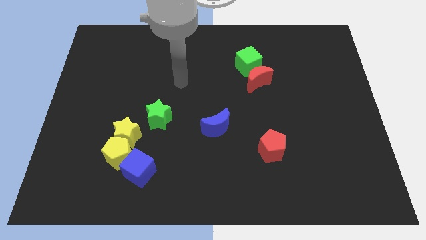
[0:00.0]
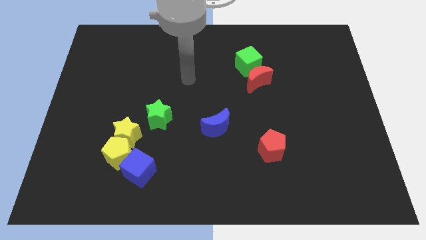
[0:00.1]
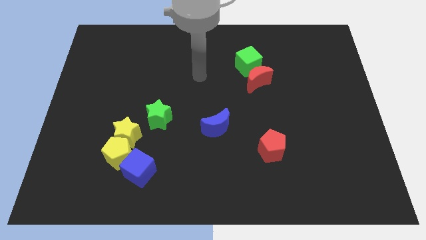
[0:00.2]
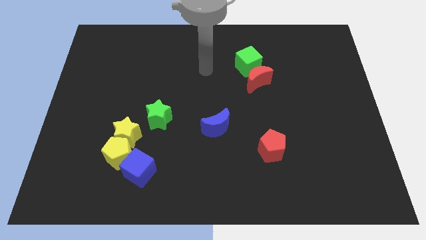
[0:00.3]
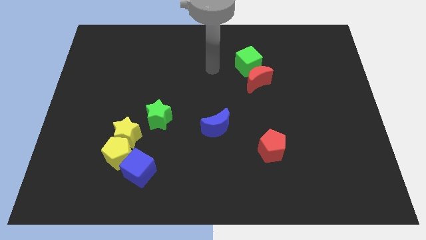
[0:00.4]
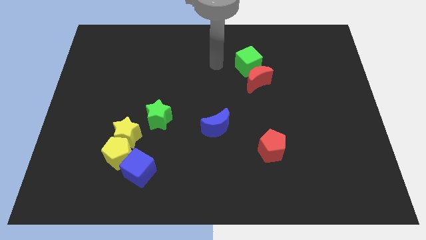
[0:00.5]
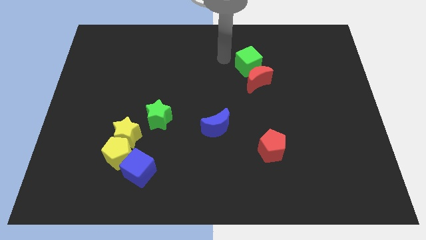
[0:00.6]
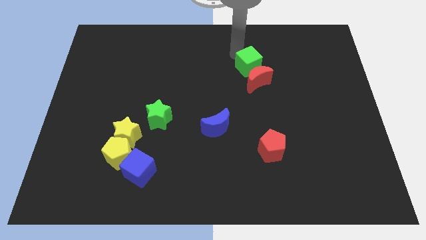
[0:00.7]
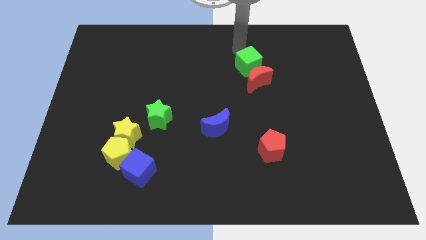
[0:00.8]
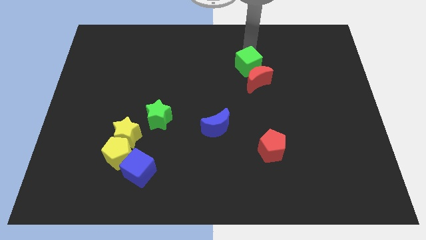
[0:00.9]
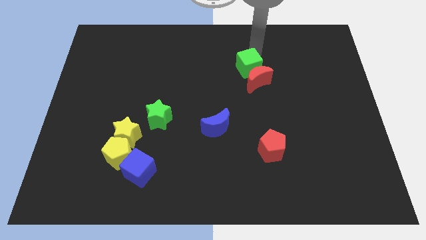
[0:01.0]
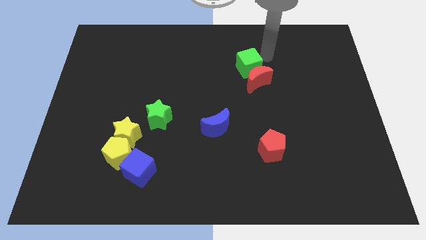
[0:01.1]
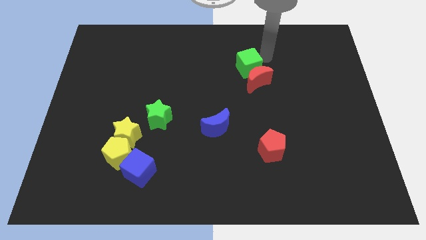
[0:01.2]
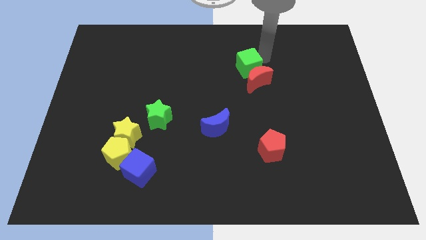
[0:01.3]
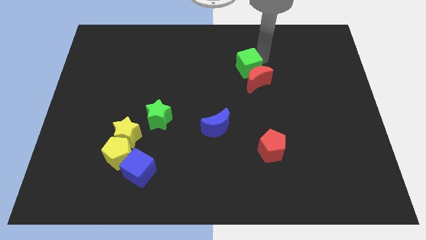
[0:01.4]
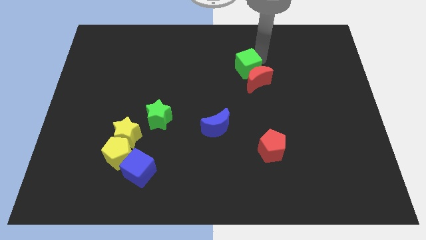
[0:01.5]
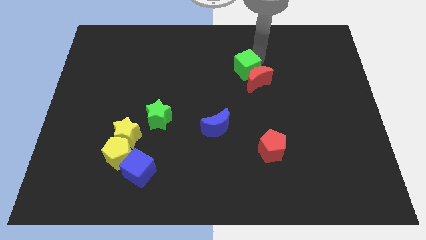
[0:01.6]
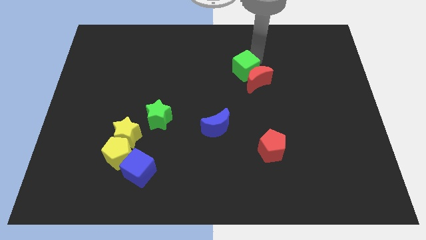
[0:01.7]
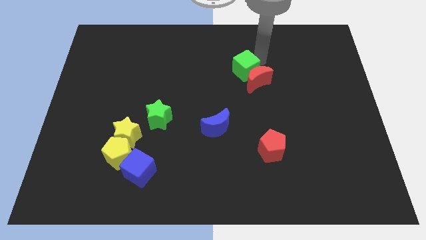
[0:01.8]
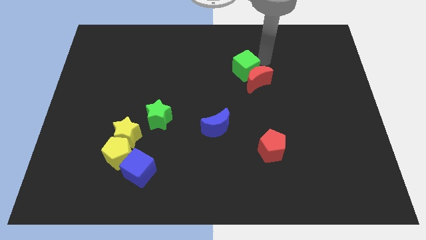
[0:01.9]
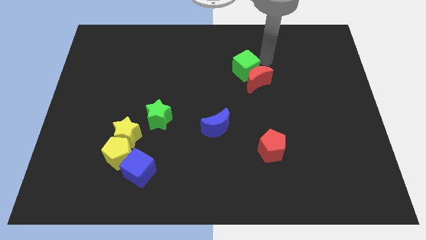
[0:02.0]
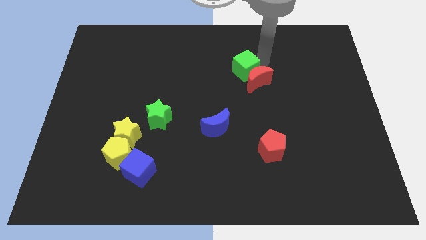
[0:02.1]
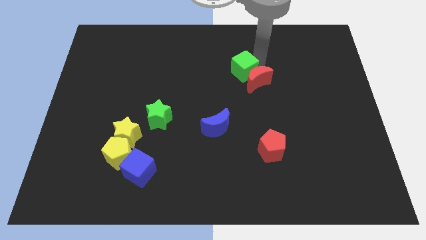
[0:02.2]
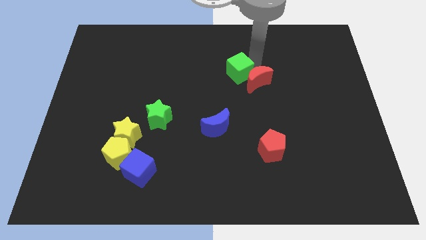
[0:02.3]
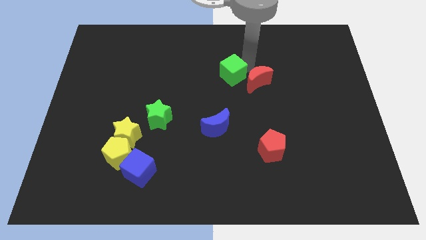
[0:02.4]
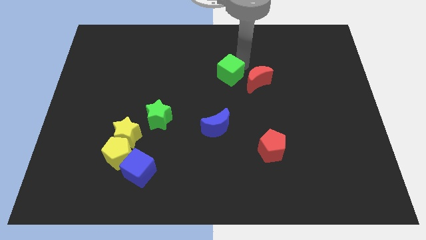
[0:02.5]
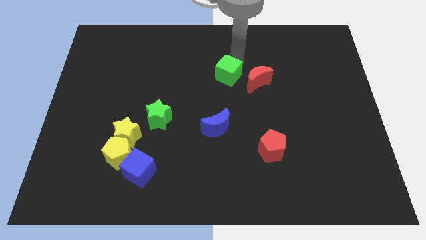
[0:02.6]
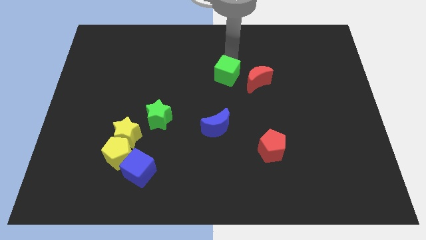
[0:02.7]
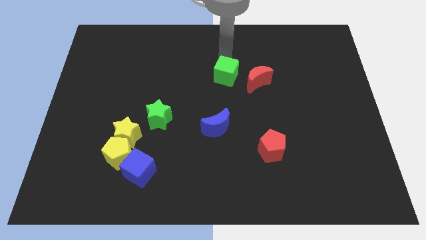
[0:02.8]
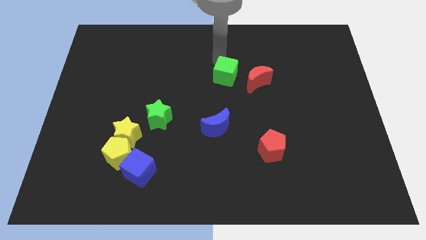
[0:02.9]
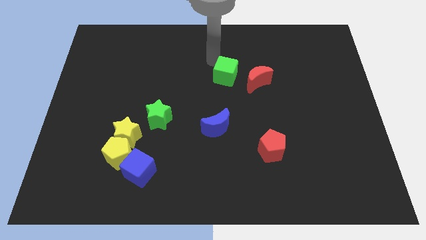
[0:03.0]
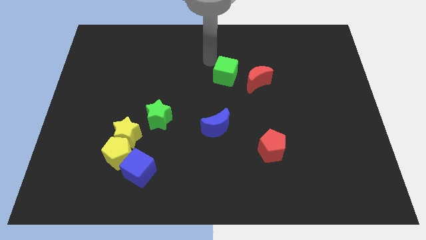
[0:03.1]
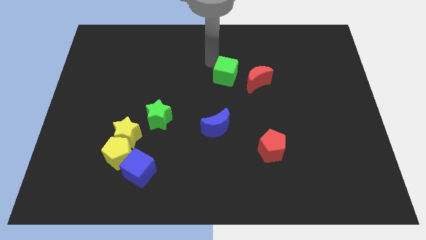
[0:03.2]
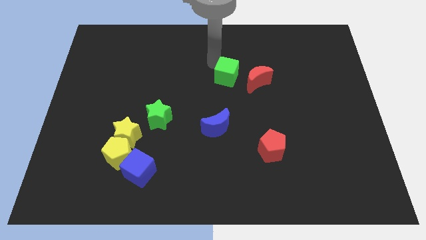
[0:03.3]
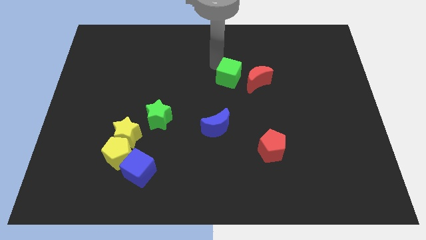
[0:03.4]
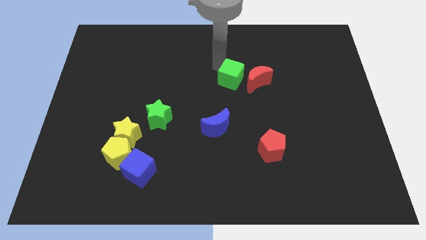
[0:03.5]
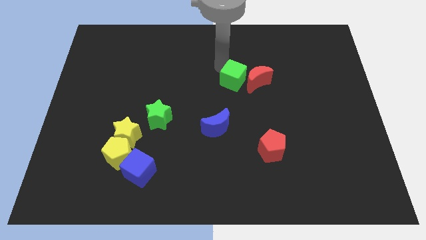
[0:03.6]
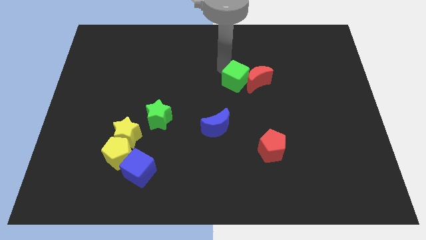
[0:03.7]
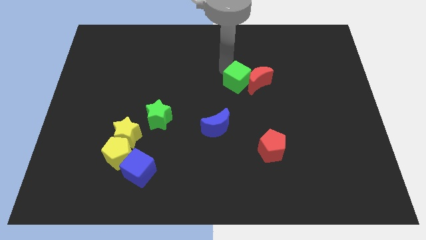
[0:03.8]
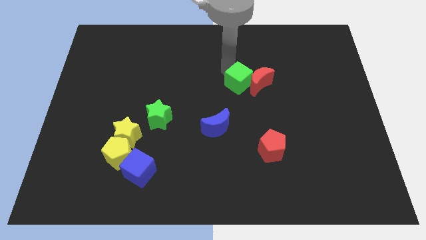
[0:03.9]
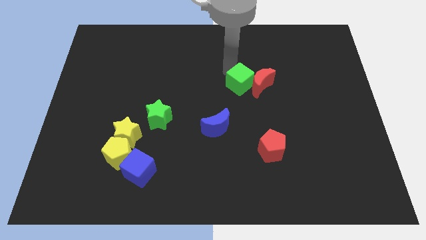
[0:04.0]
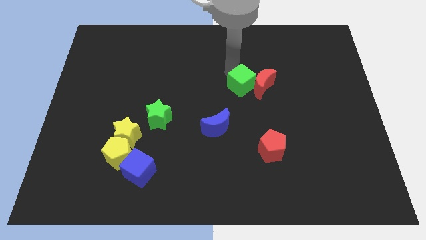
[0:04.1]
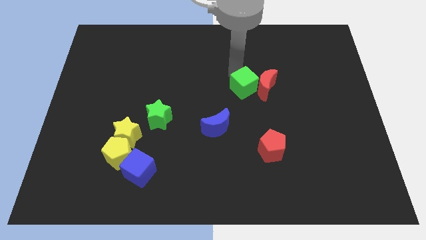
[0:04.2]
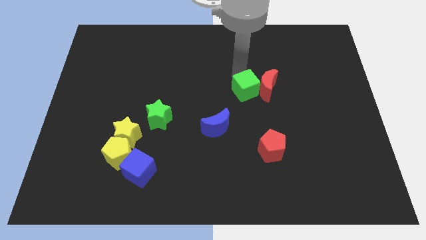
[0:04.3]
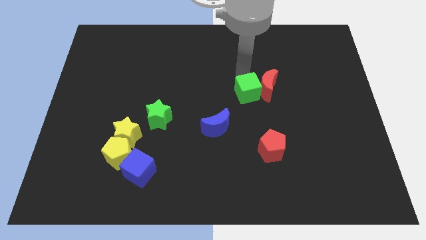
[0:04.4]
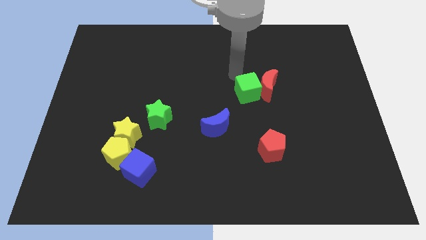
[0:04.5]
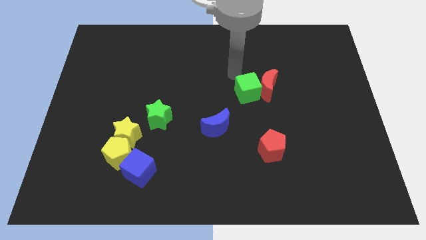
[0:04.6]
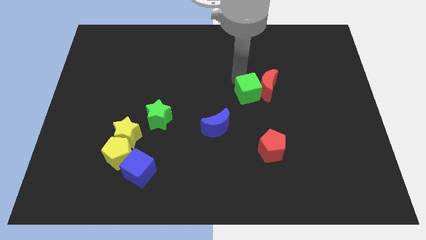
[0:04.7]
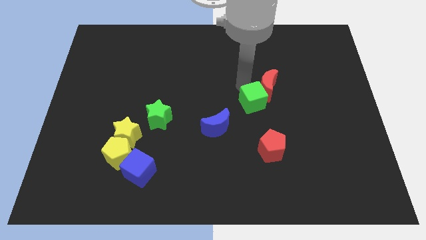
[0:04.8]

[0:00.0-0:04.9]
put the green cube below the red moon

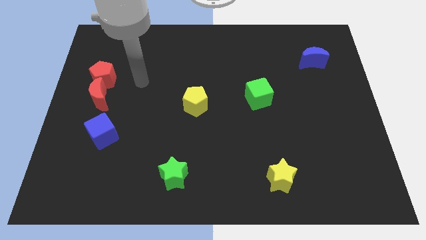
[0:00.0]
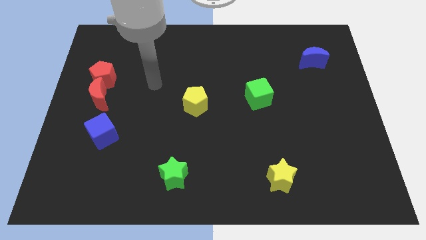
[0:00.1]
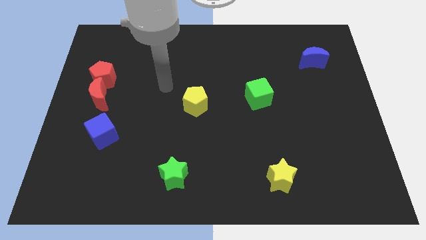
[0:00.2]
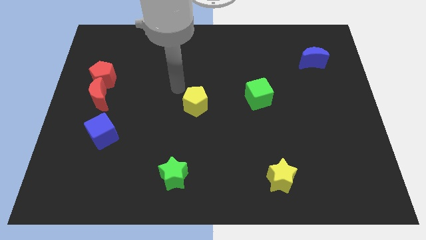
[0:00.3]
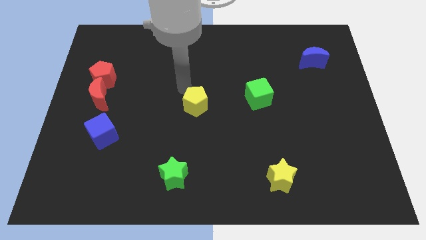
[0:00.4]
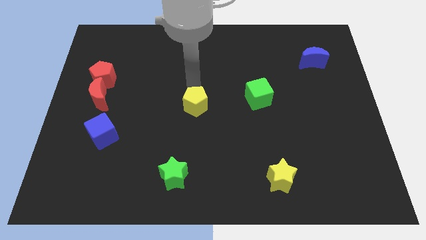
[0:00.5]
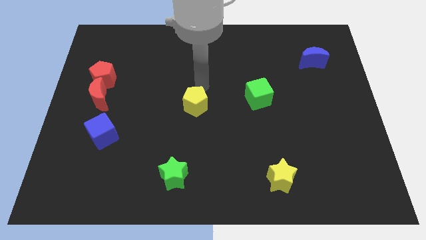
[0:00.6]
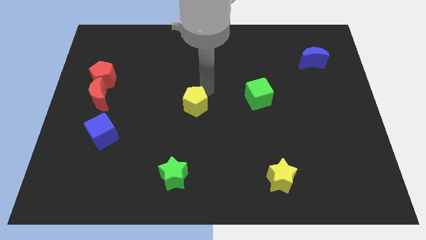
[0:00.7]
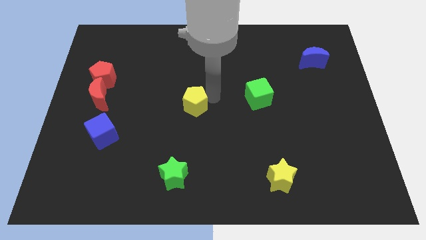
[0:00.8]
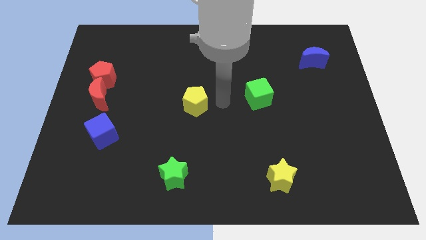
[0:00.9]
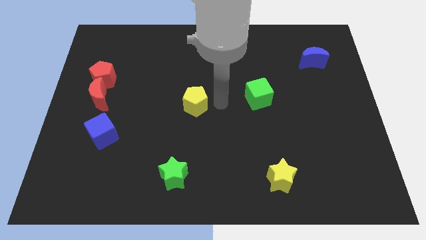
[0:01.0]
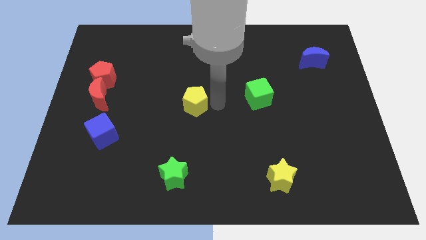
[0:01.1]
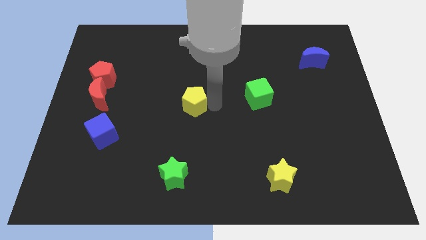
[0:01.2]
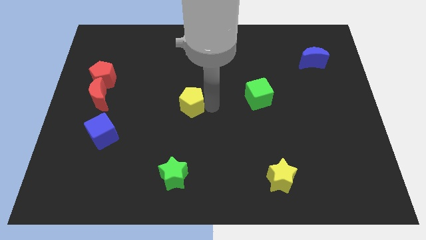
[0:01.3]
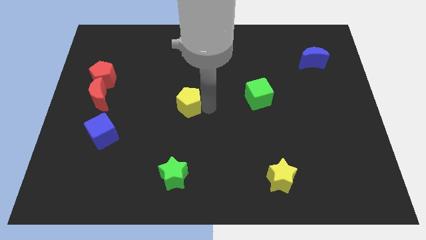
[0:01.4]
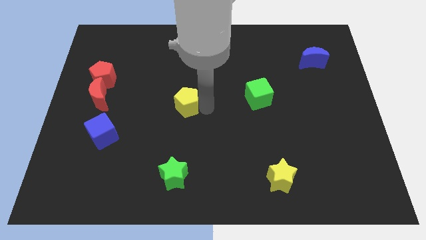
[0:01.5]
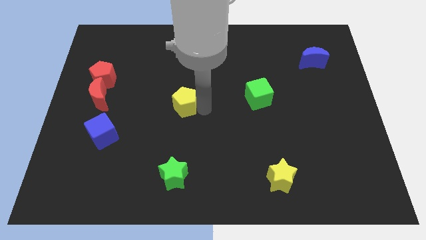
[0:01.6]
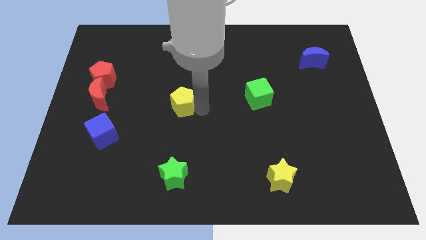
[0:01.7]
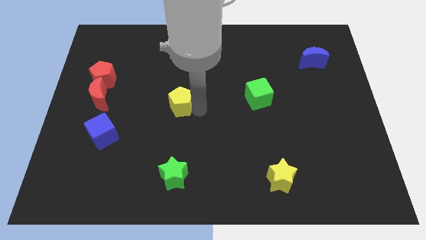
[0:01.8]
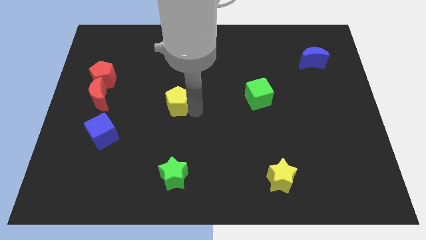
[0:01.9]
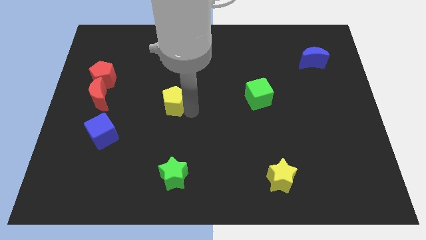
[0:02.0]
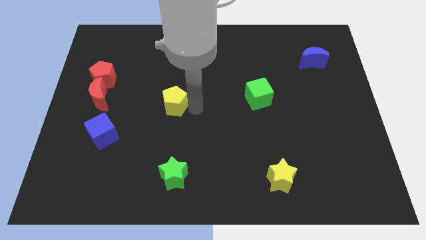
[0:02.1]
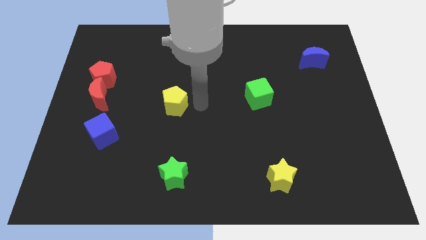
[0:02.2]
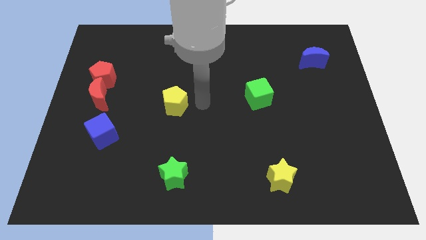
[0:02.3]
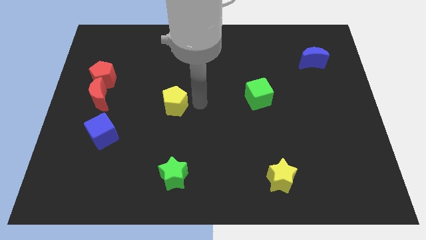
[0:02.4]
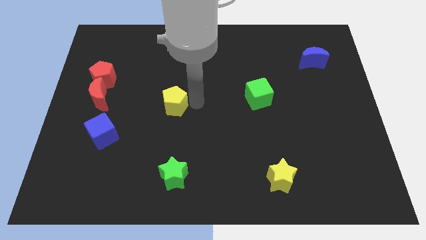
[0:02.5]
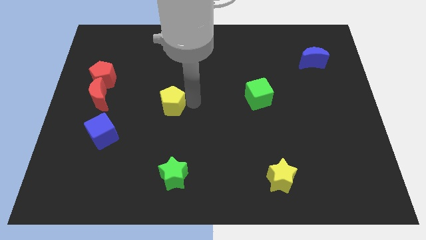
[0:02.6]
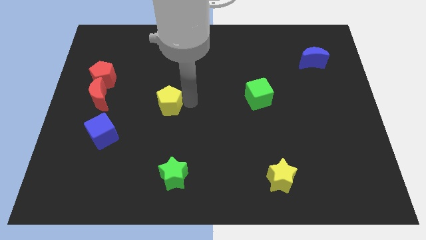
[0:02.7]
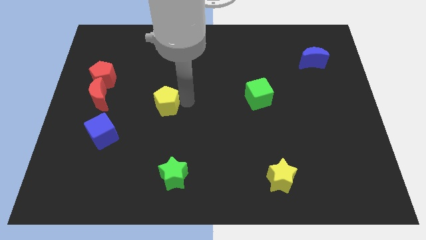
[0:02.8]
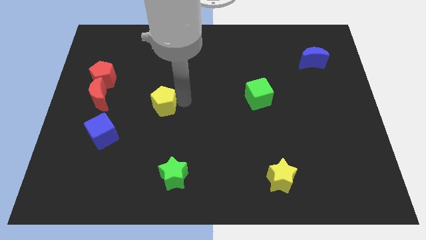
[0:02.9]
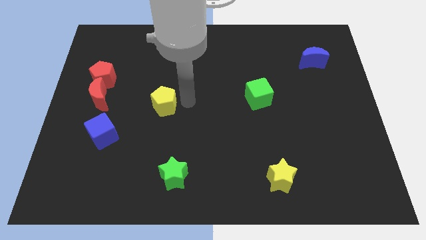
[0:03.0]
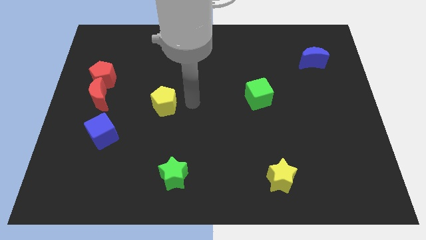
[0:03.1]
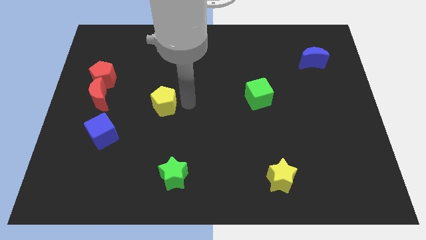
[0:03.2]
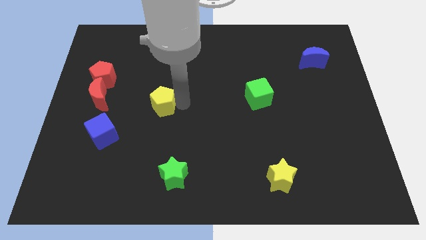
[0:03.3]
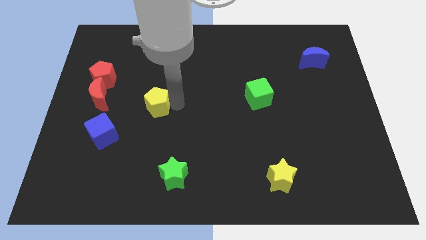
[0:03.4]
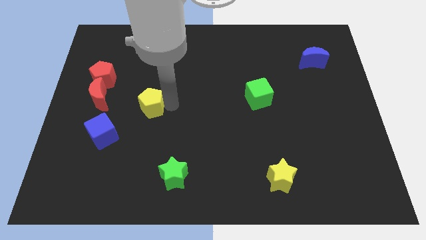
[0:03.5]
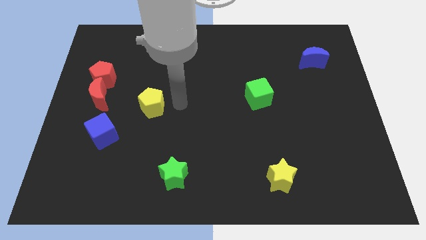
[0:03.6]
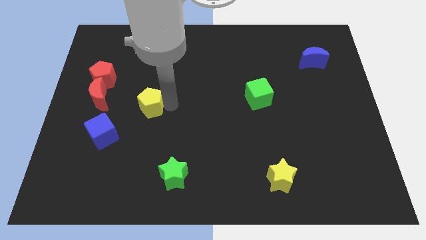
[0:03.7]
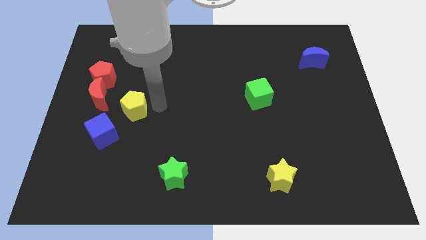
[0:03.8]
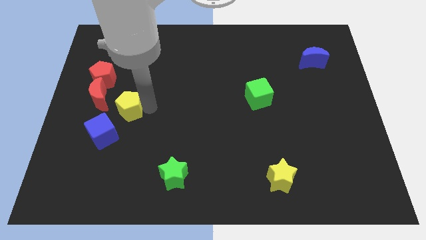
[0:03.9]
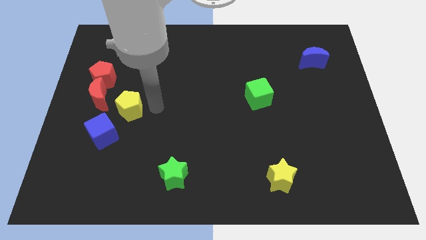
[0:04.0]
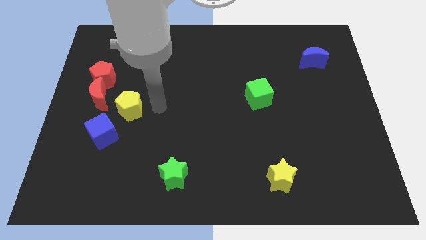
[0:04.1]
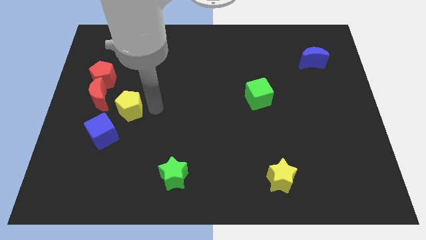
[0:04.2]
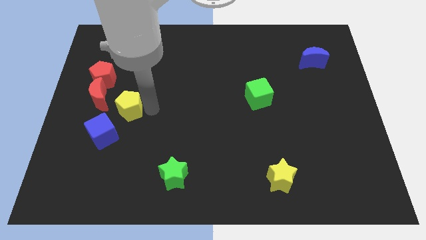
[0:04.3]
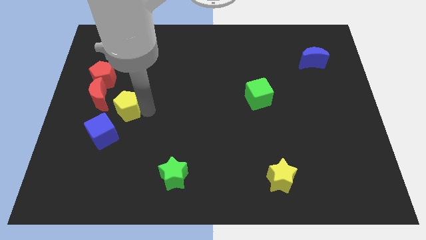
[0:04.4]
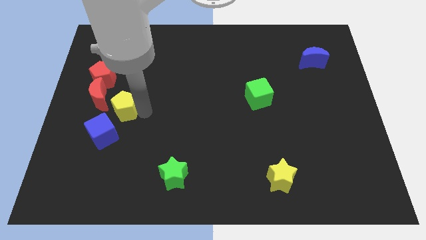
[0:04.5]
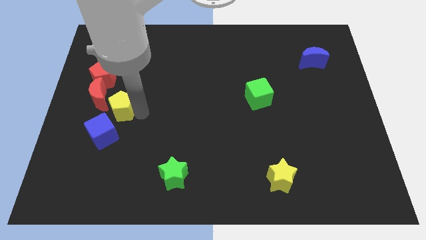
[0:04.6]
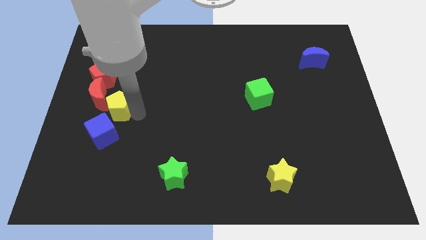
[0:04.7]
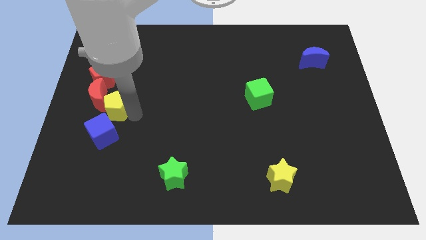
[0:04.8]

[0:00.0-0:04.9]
slide the yellow pentagon to the bottom side of the red pentagon
